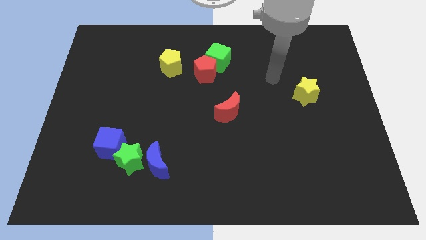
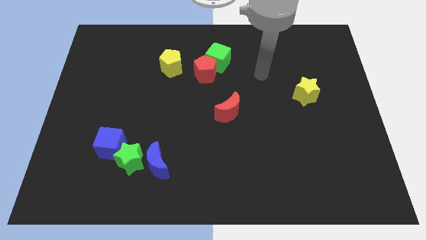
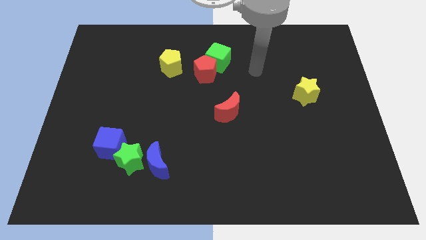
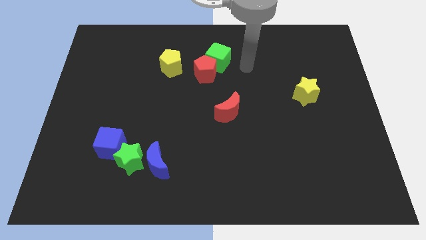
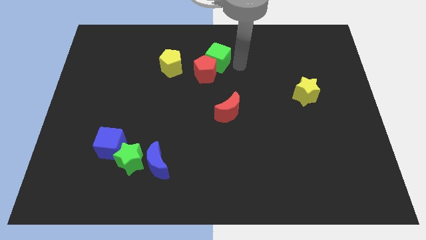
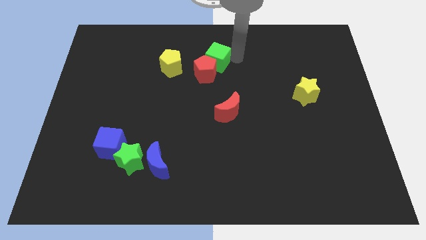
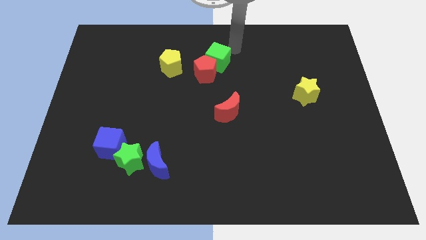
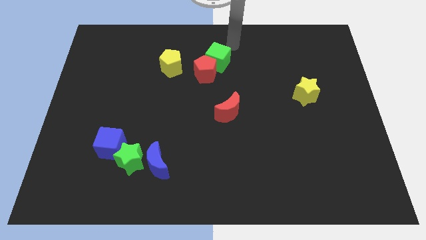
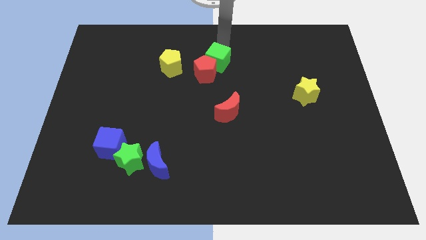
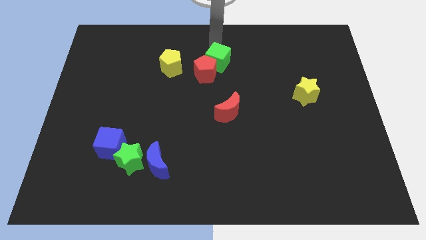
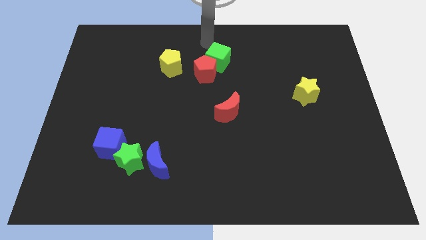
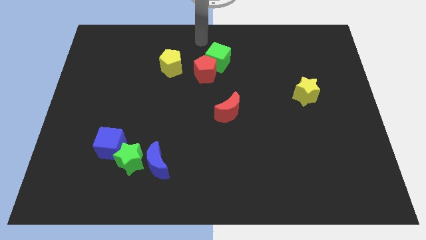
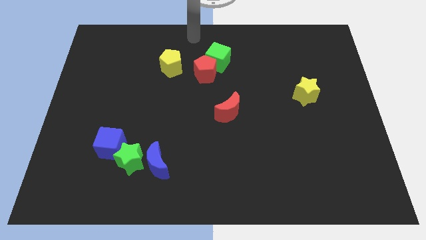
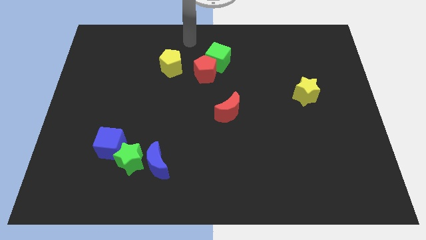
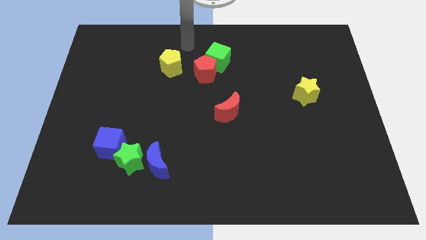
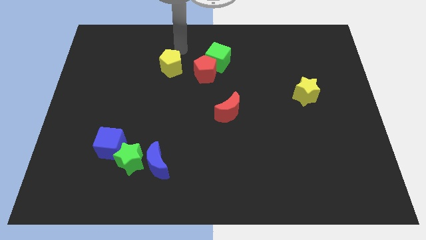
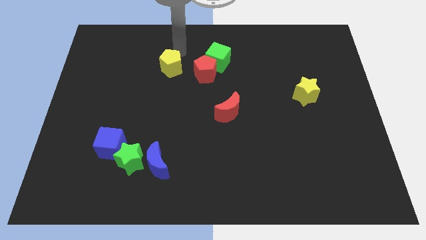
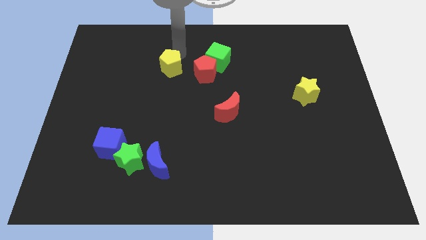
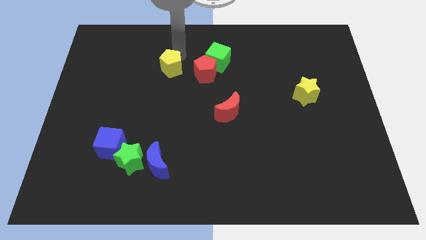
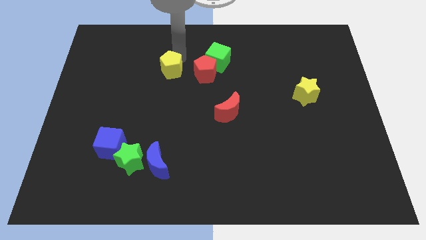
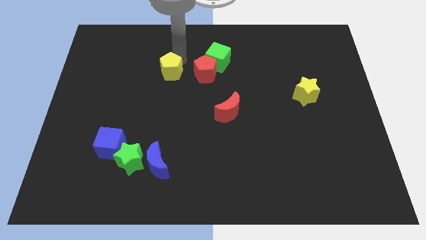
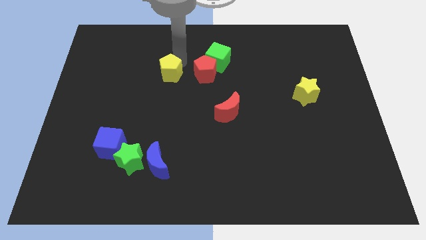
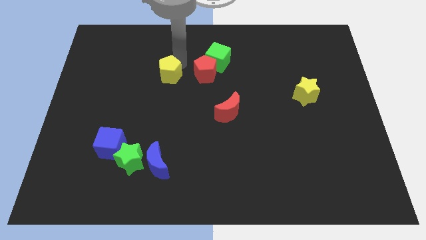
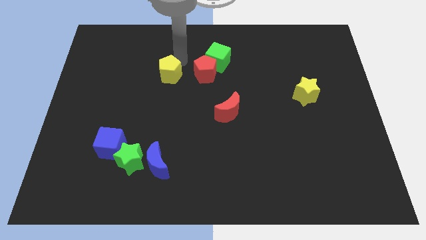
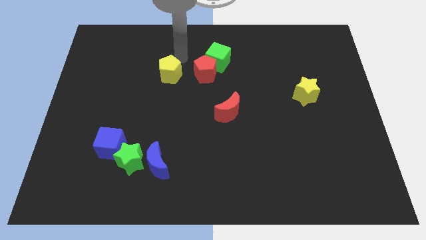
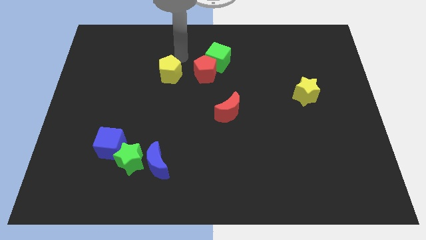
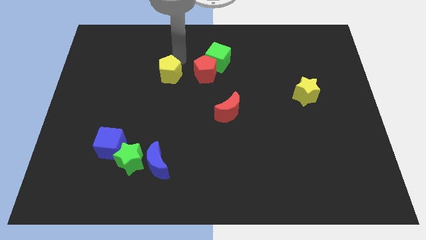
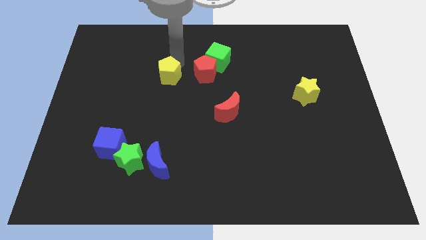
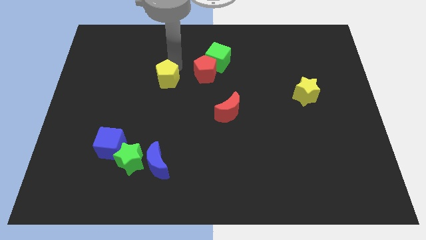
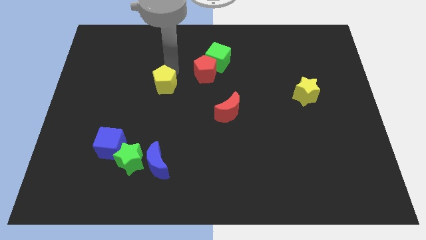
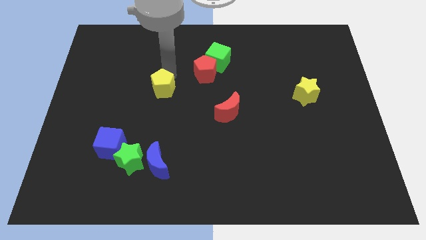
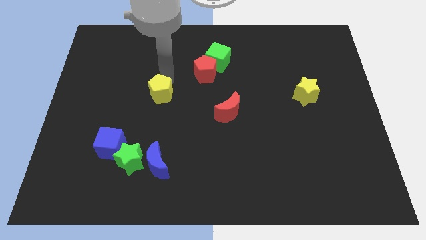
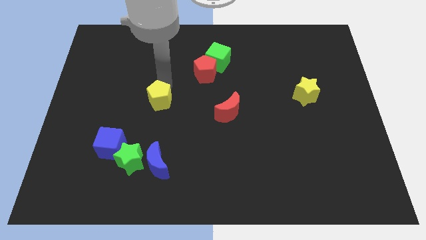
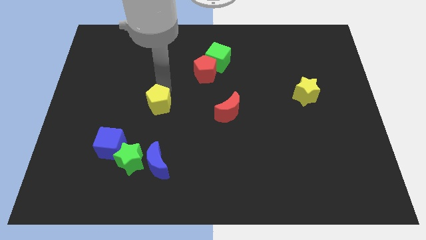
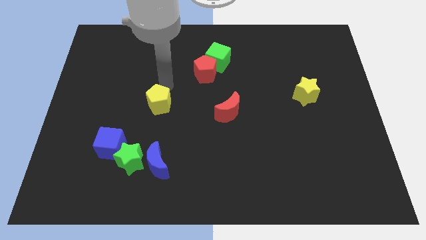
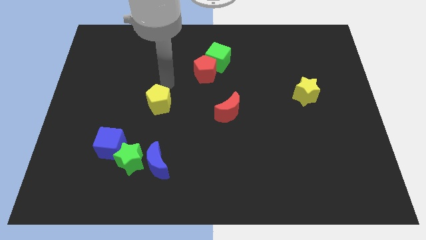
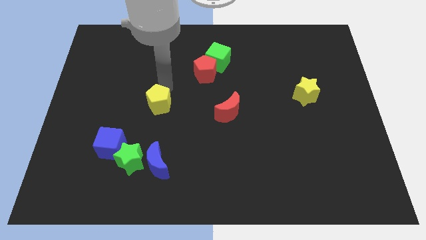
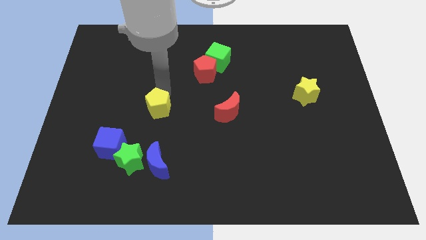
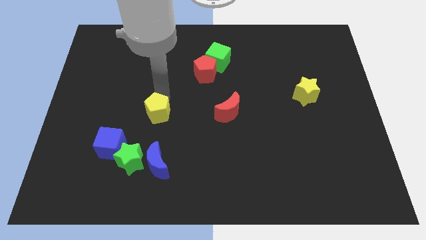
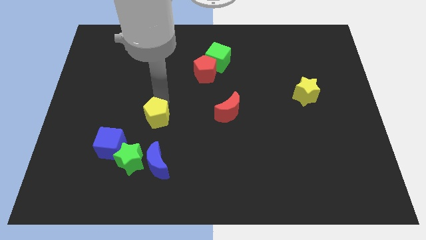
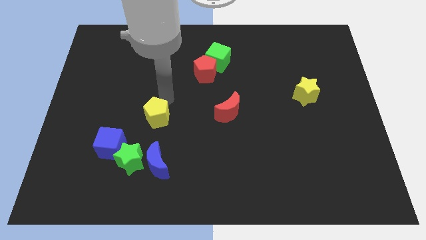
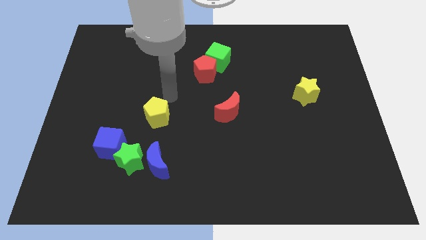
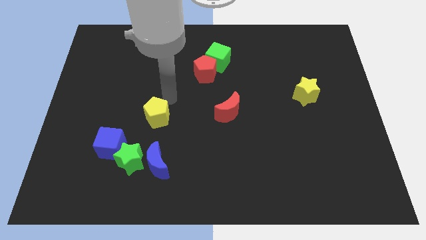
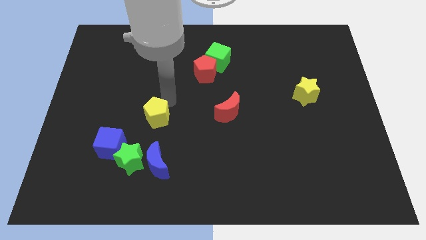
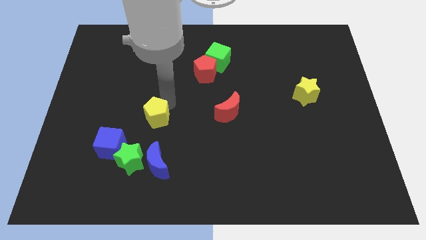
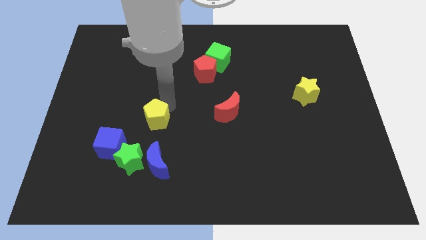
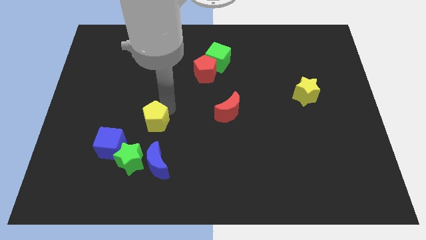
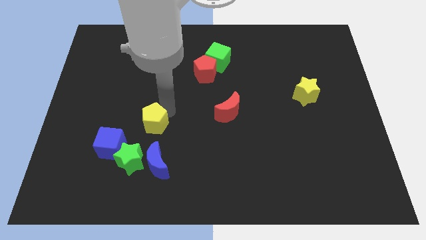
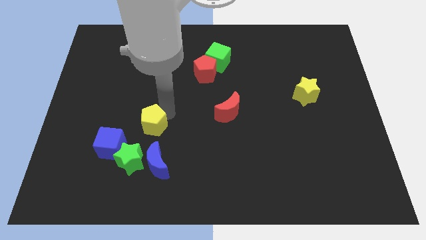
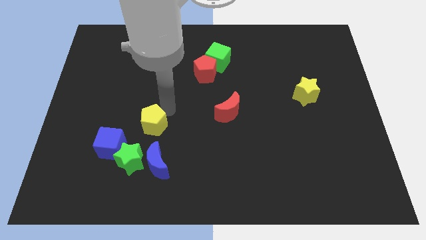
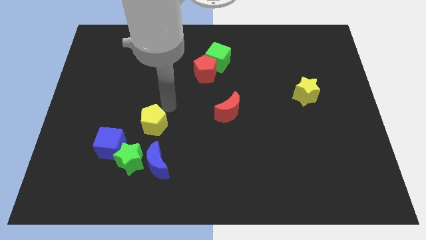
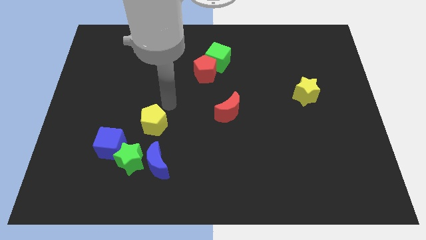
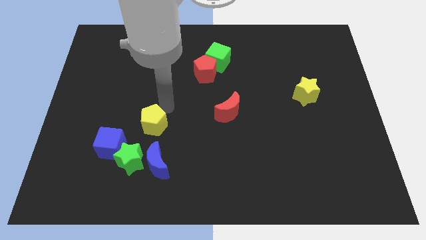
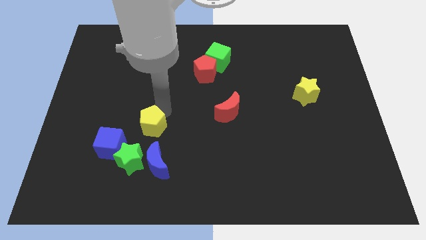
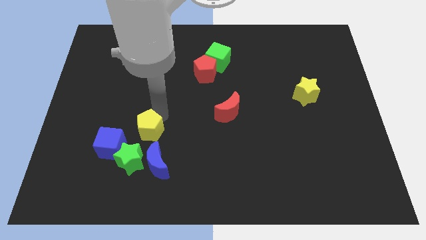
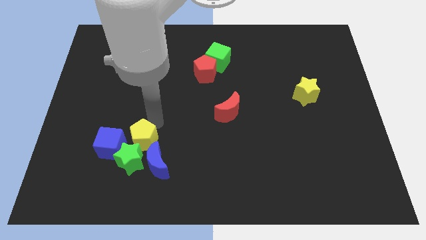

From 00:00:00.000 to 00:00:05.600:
push the yellow pentagon close to the green star

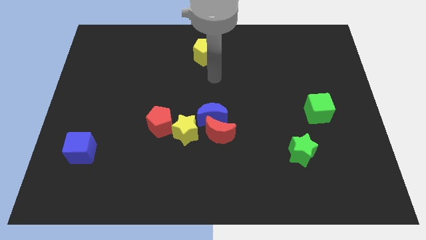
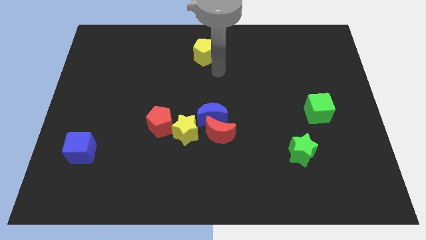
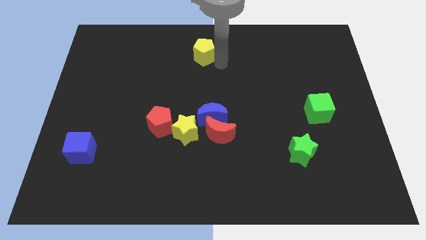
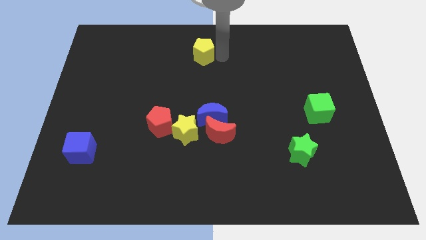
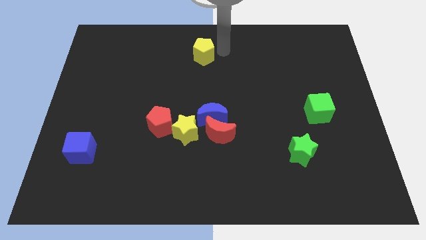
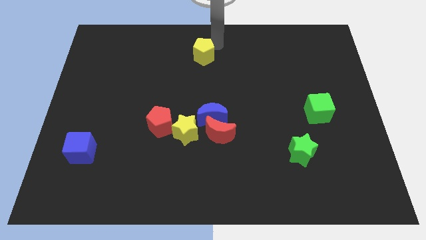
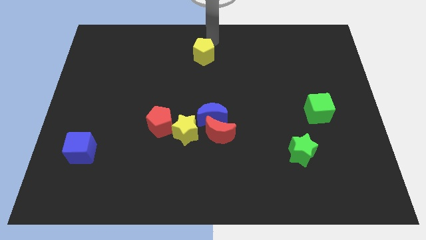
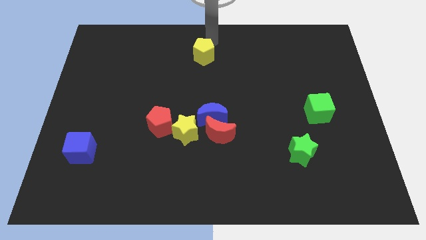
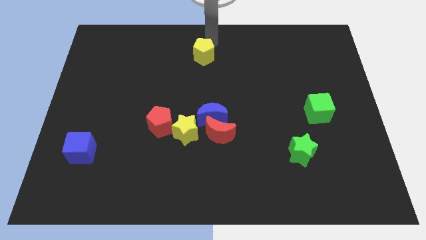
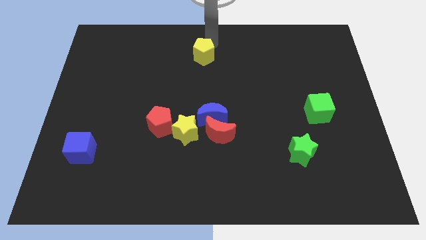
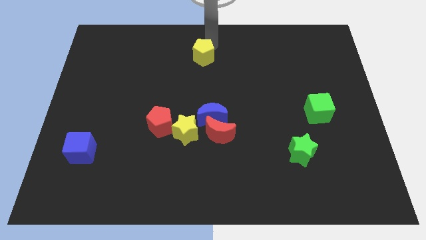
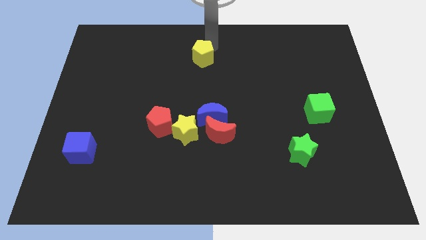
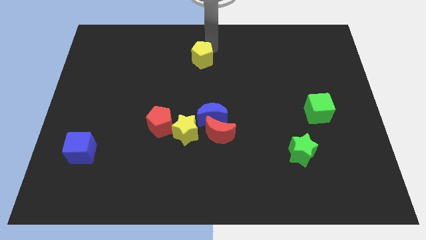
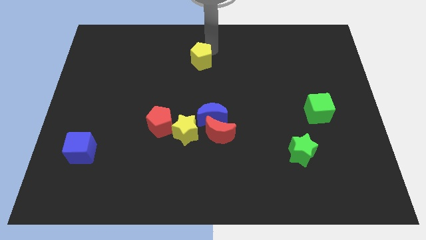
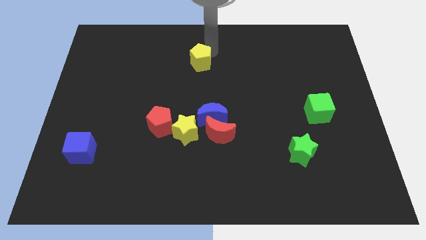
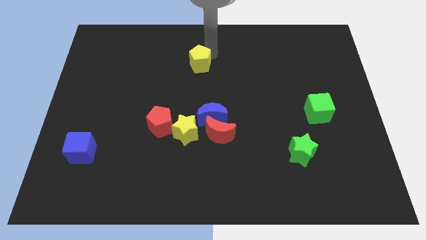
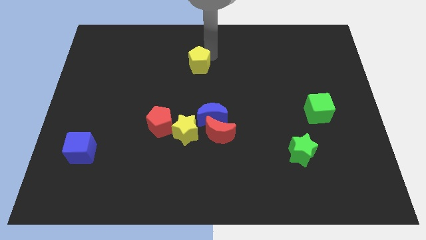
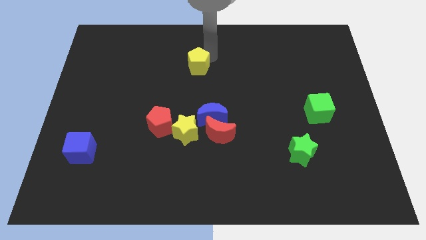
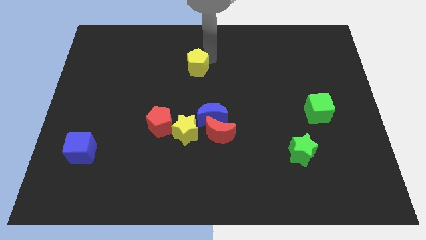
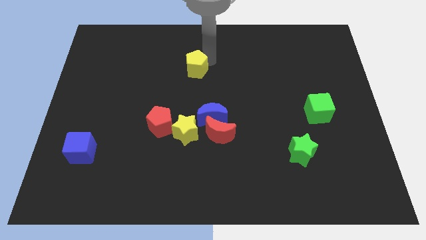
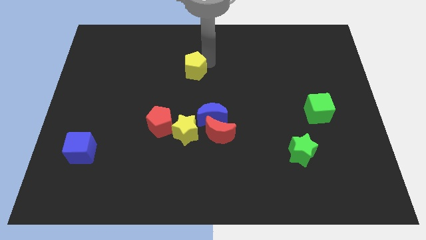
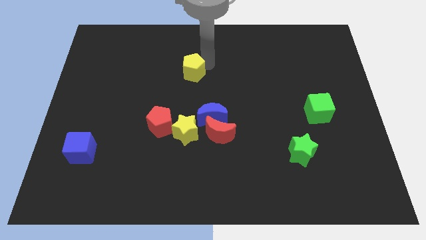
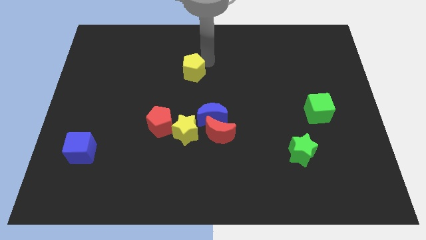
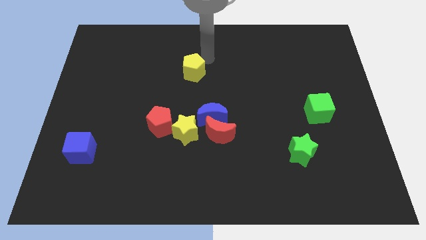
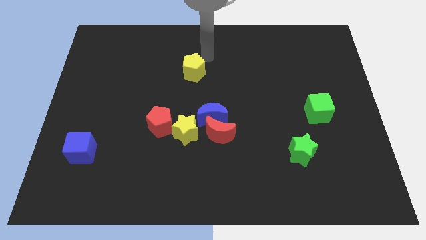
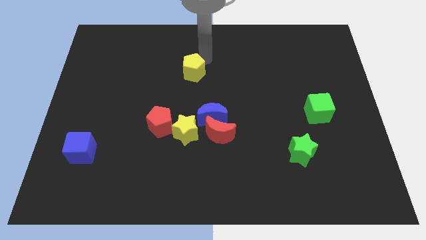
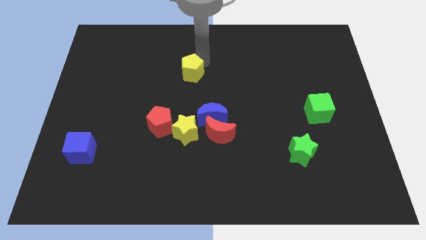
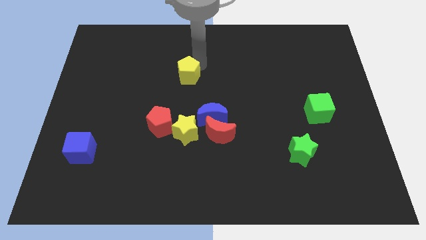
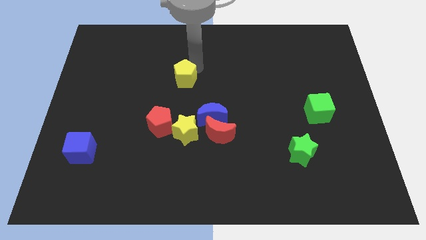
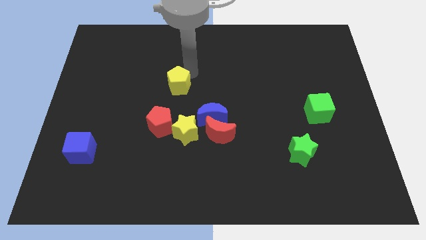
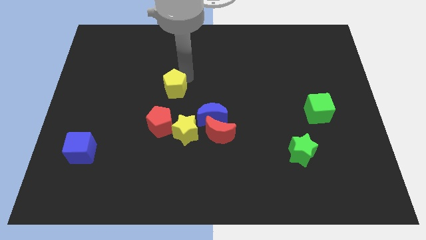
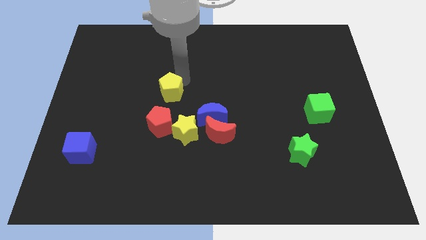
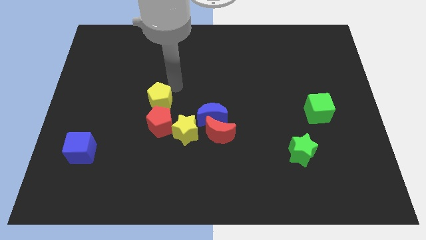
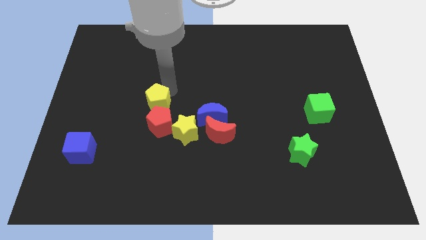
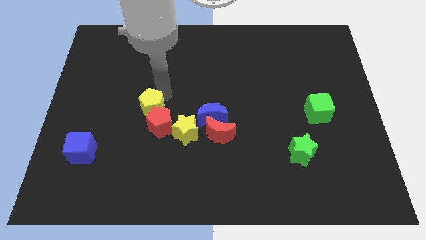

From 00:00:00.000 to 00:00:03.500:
slide the yellow pentagon close to the red pentagon
